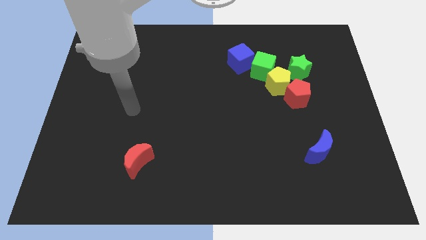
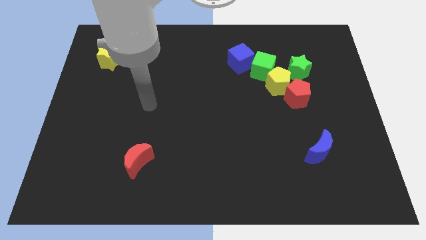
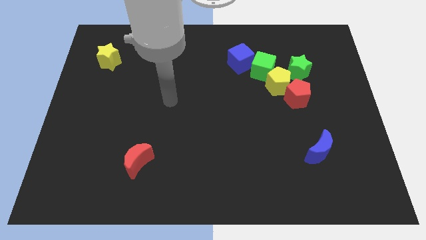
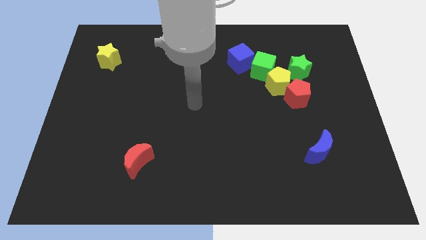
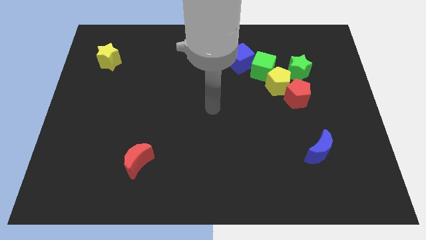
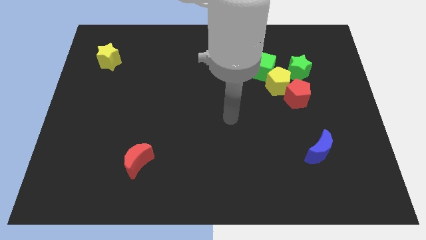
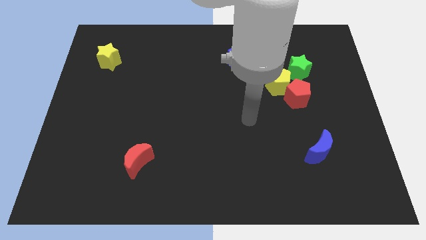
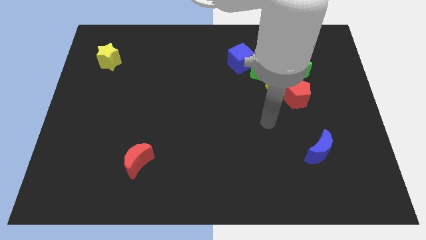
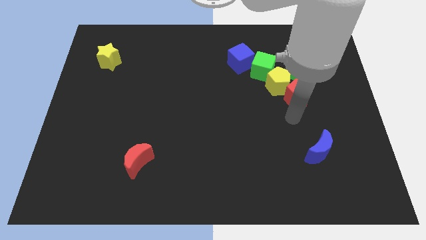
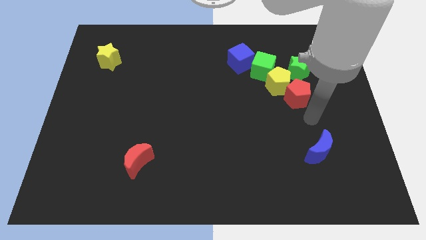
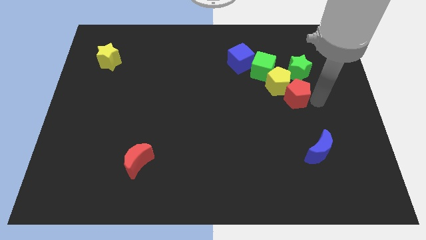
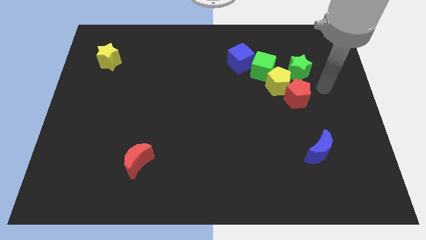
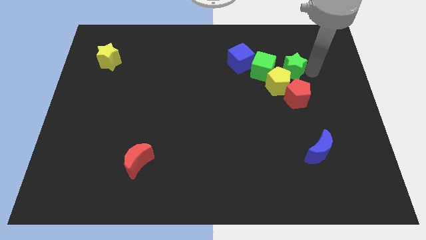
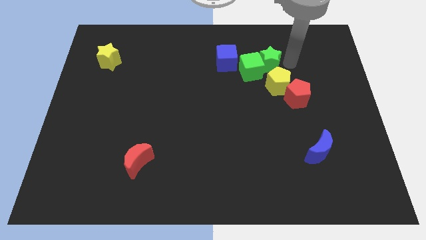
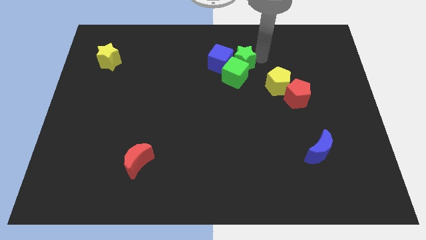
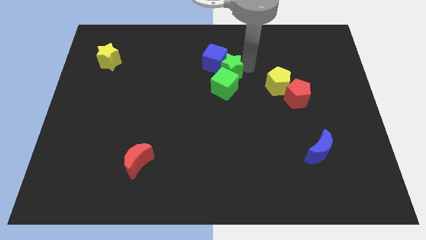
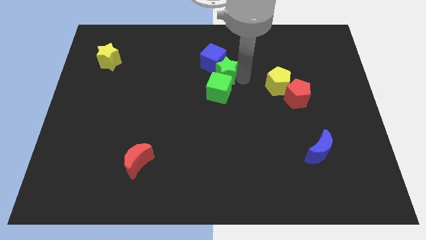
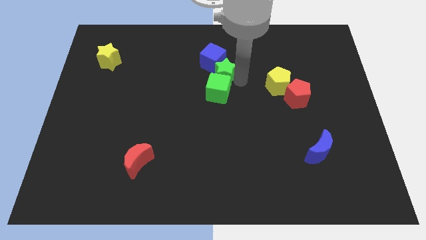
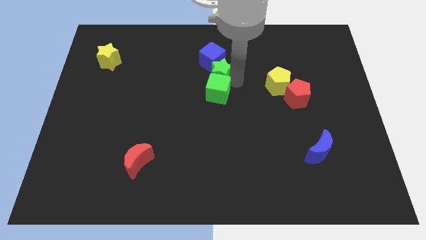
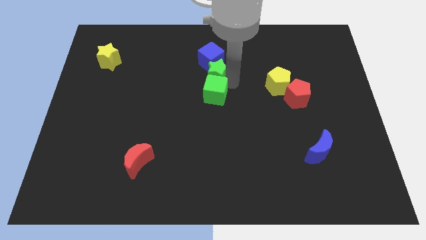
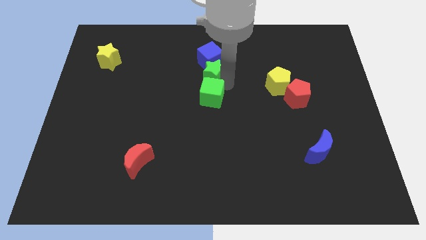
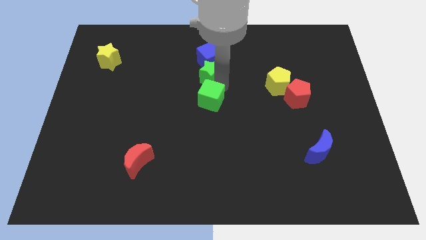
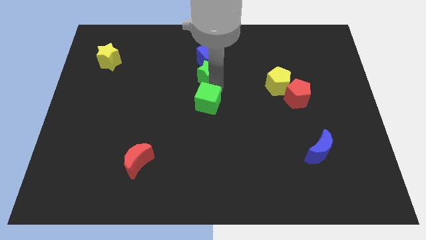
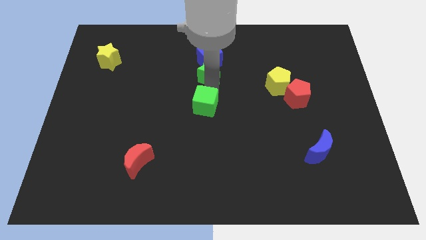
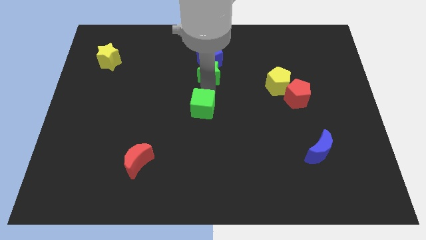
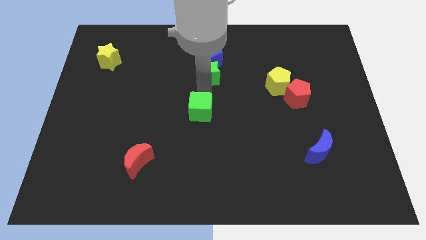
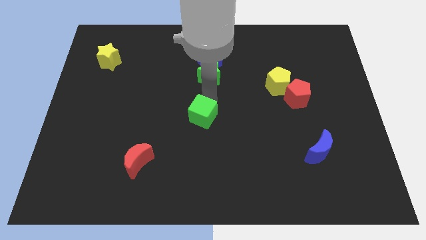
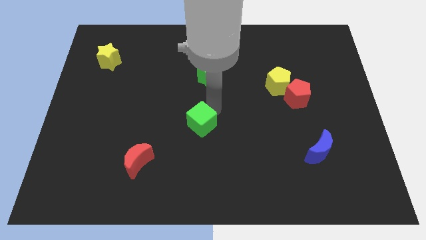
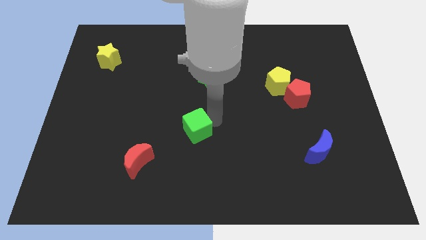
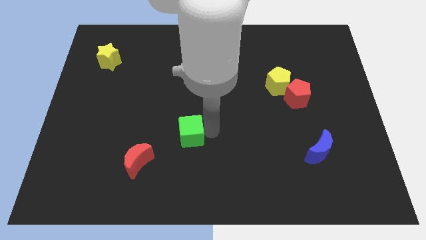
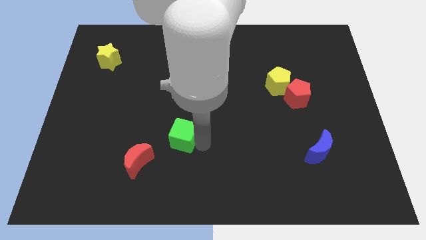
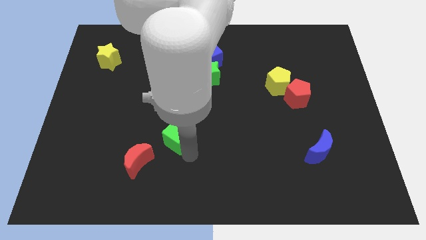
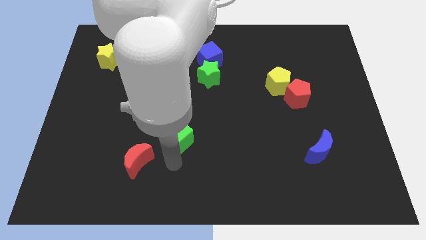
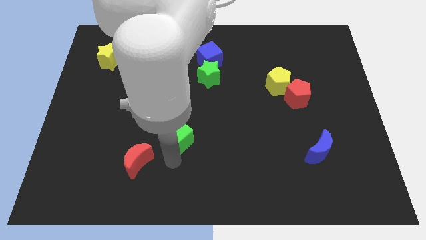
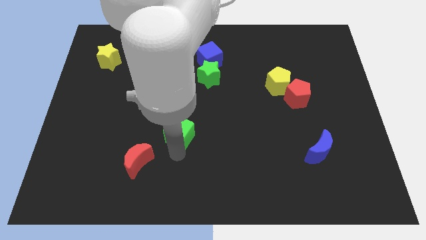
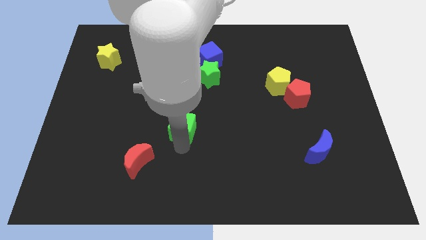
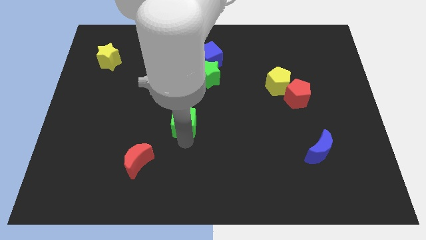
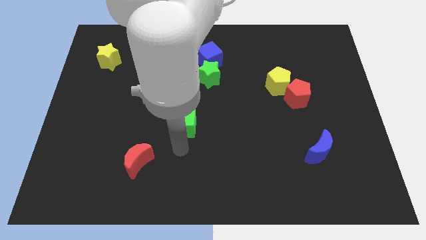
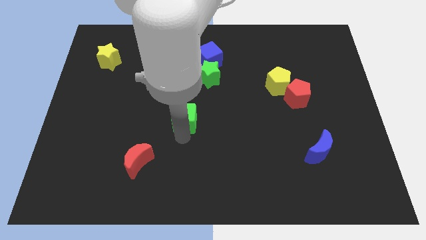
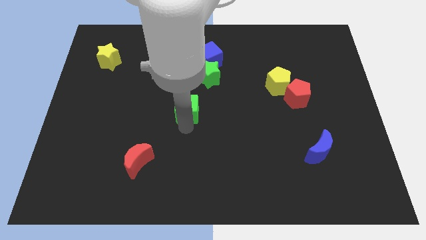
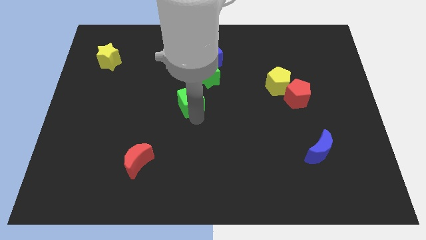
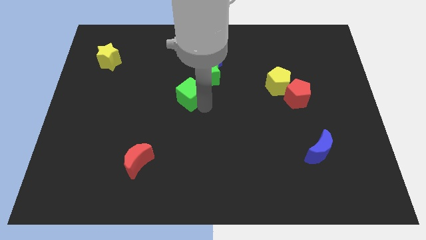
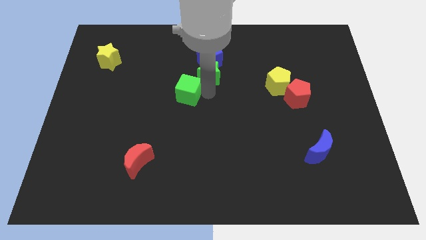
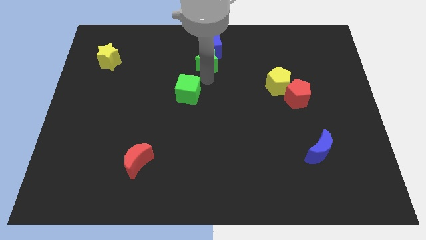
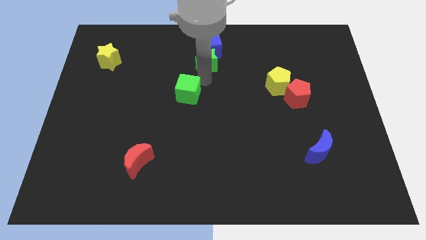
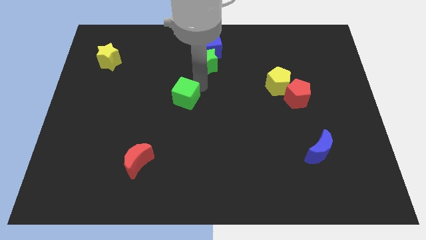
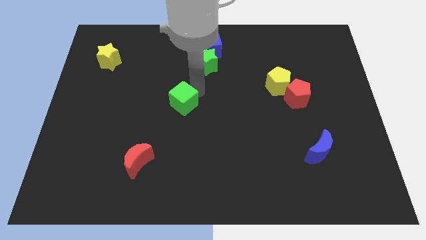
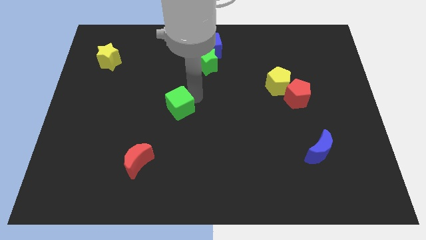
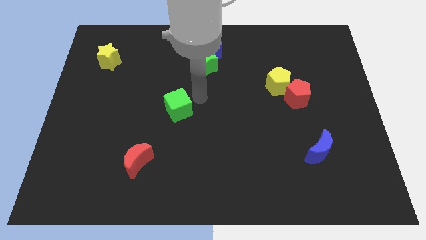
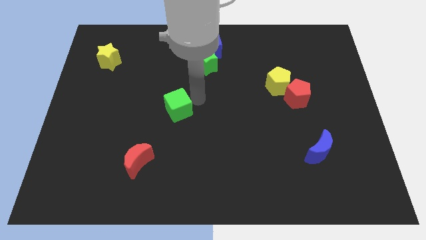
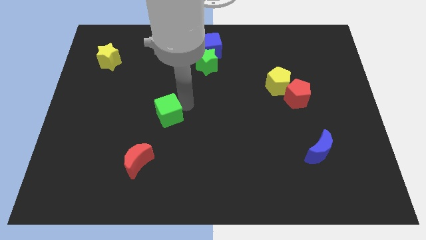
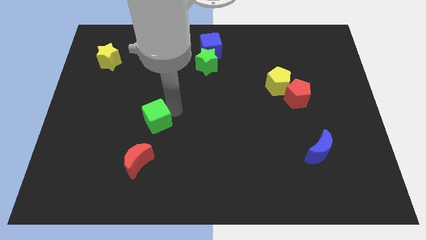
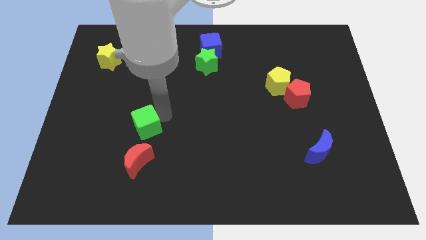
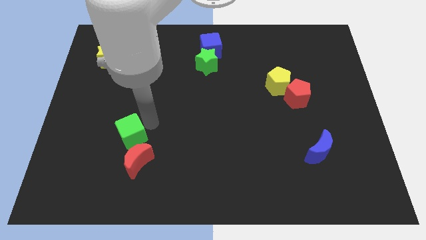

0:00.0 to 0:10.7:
slide the green cube diagonally up and to the left of the red moon
